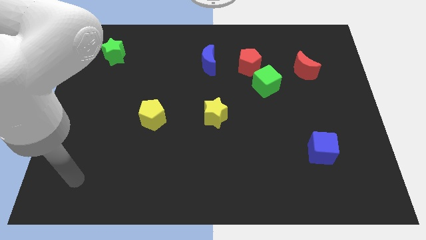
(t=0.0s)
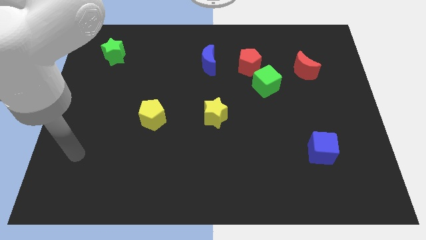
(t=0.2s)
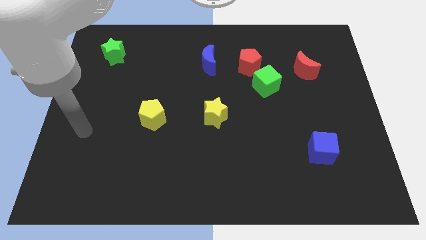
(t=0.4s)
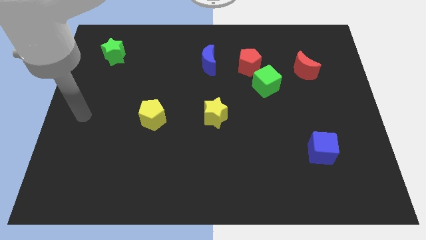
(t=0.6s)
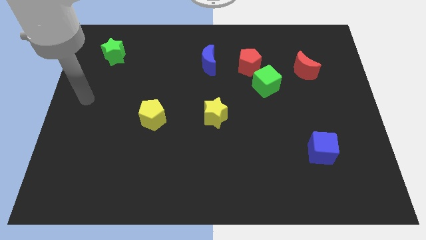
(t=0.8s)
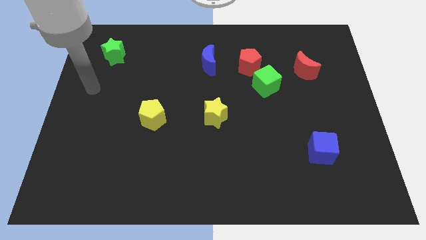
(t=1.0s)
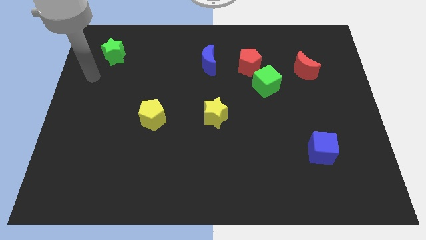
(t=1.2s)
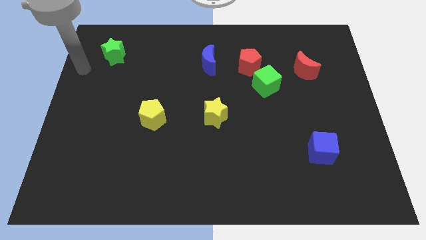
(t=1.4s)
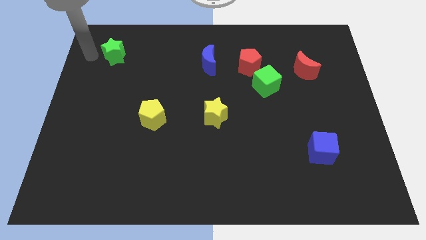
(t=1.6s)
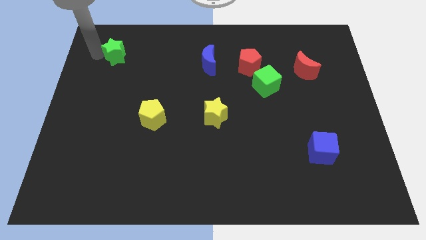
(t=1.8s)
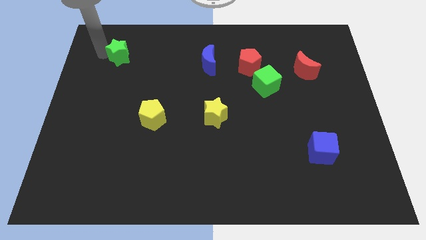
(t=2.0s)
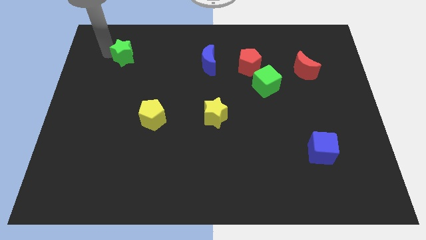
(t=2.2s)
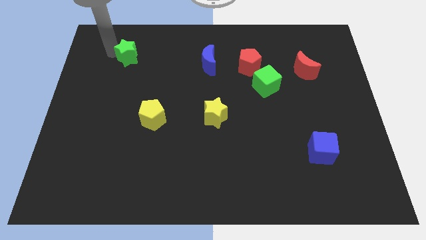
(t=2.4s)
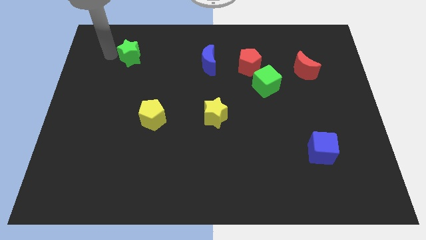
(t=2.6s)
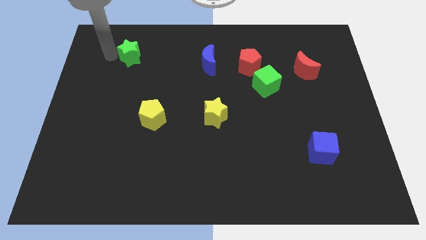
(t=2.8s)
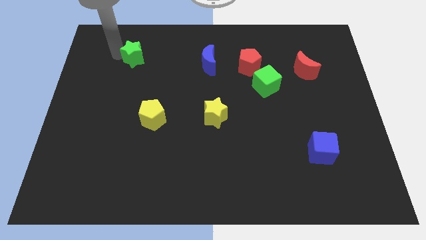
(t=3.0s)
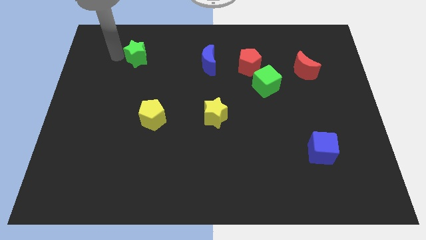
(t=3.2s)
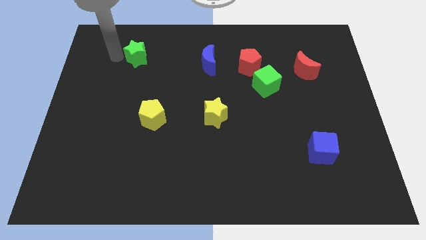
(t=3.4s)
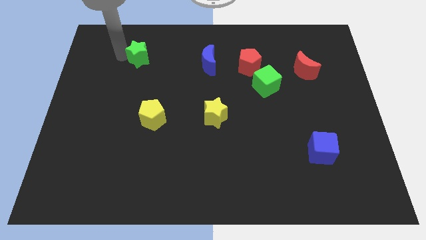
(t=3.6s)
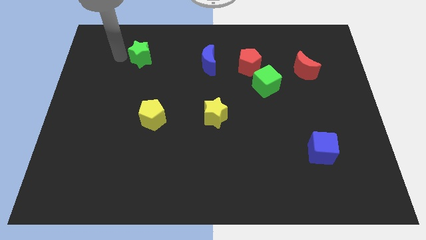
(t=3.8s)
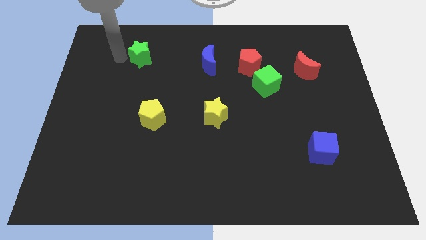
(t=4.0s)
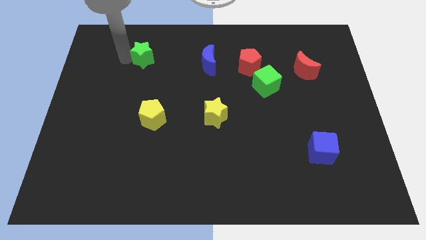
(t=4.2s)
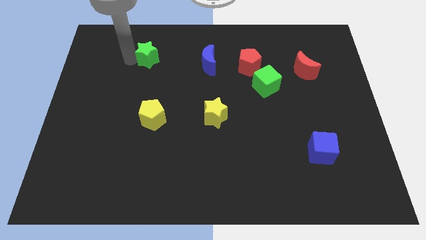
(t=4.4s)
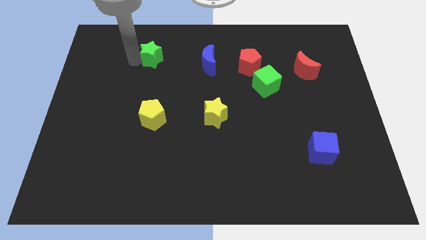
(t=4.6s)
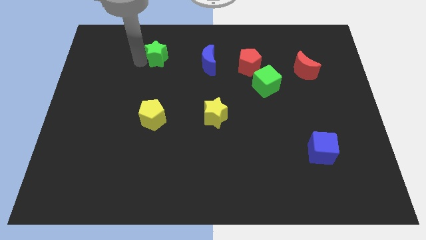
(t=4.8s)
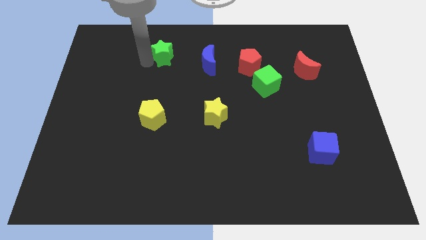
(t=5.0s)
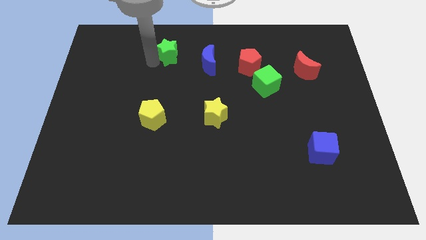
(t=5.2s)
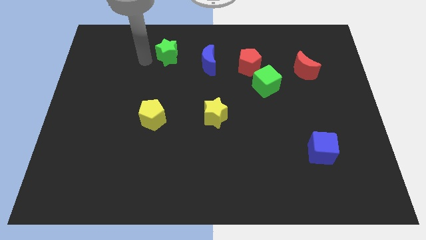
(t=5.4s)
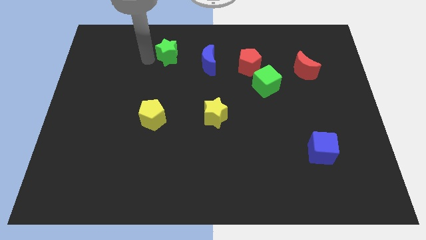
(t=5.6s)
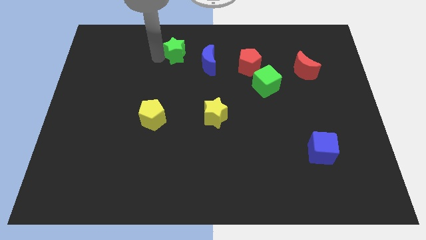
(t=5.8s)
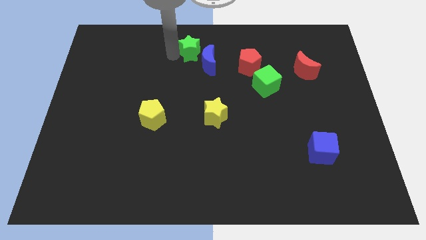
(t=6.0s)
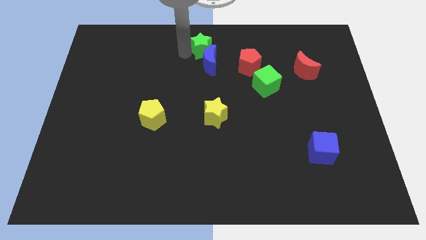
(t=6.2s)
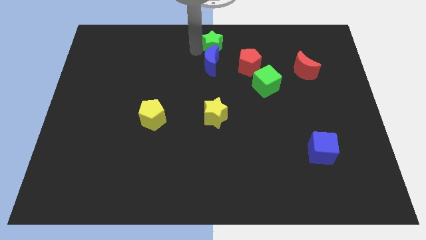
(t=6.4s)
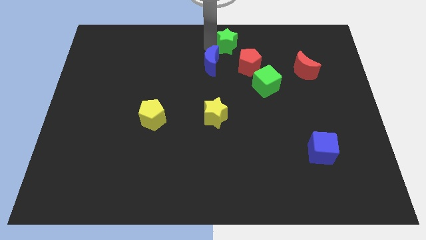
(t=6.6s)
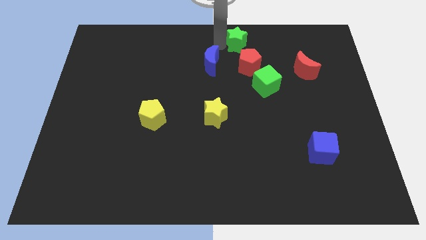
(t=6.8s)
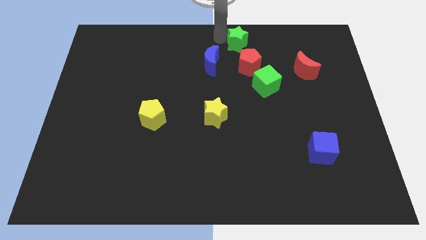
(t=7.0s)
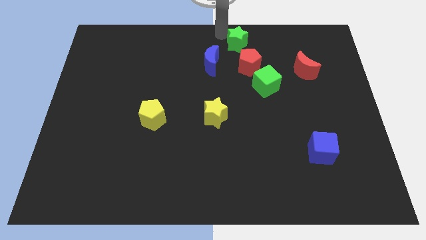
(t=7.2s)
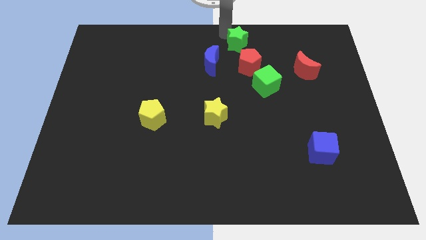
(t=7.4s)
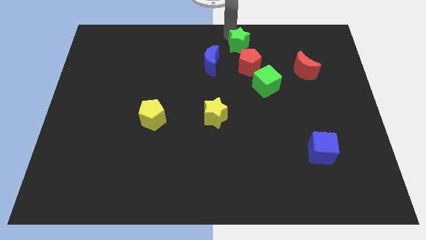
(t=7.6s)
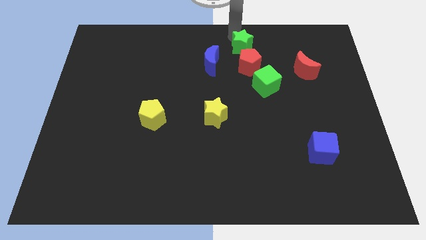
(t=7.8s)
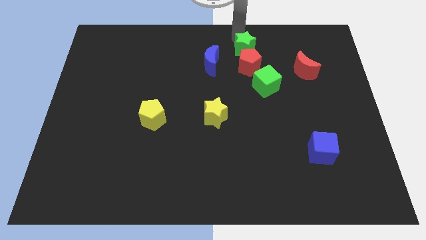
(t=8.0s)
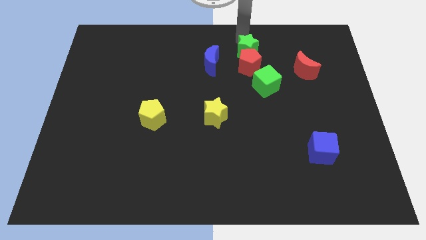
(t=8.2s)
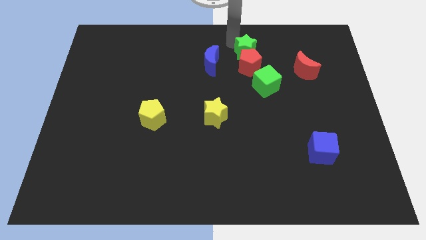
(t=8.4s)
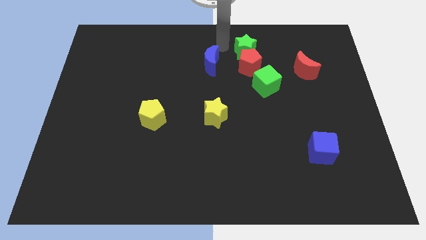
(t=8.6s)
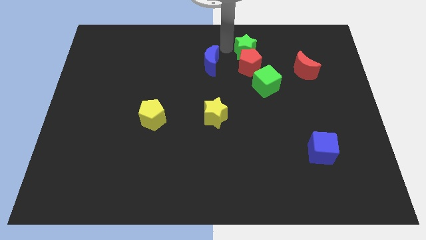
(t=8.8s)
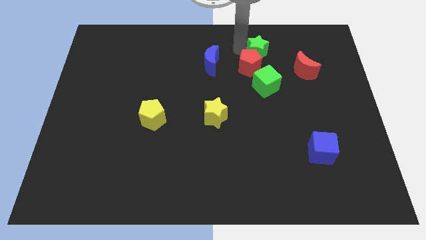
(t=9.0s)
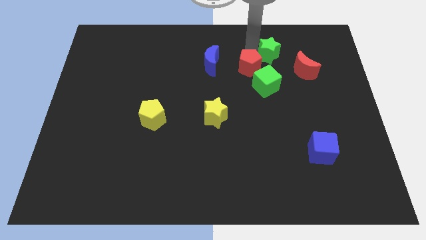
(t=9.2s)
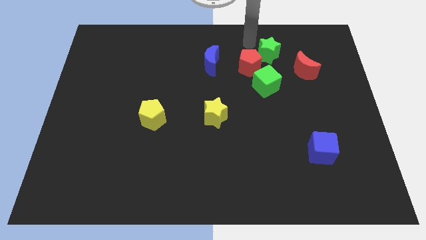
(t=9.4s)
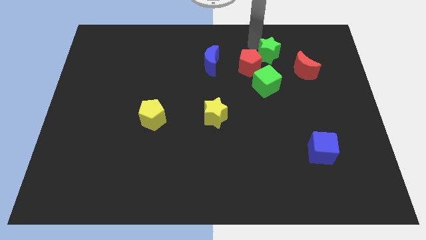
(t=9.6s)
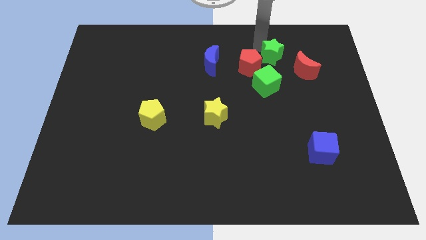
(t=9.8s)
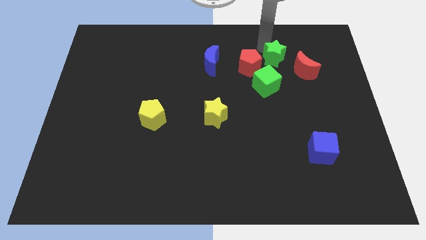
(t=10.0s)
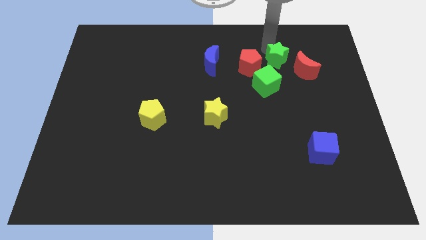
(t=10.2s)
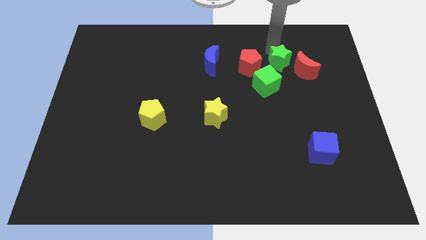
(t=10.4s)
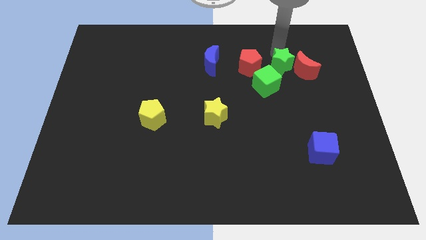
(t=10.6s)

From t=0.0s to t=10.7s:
move the green star close to the red moon

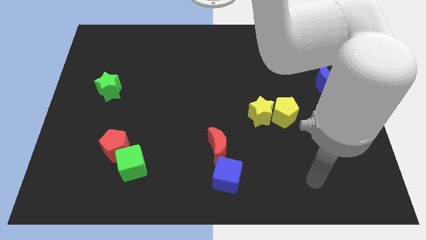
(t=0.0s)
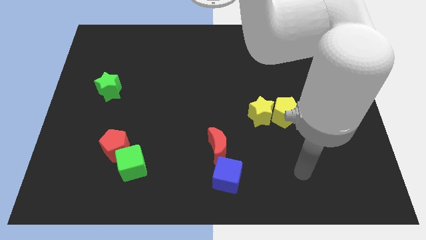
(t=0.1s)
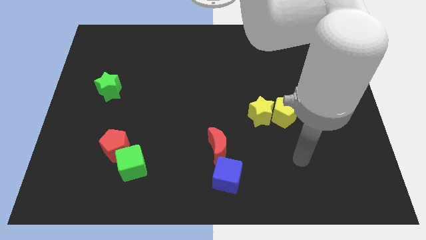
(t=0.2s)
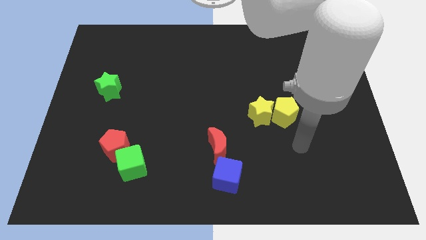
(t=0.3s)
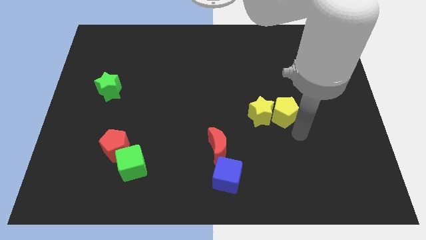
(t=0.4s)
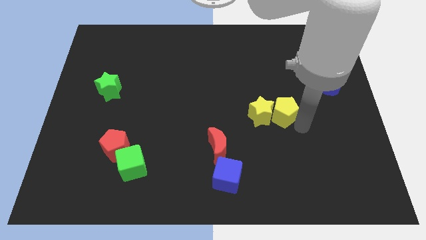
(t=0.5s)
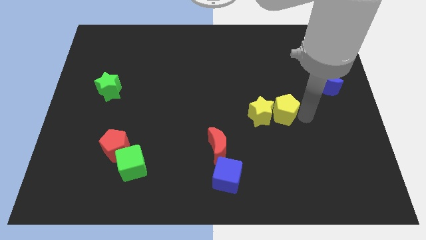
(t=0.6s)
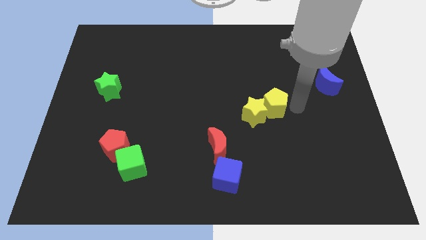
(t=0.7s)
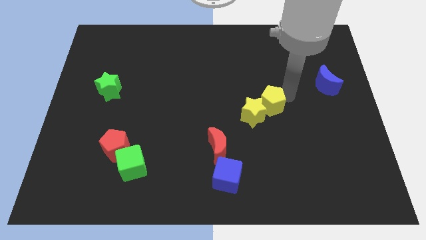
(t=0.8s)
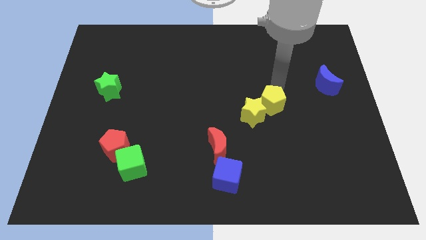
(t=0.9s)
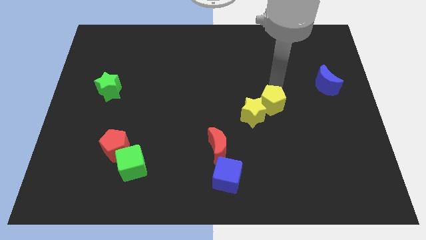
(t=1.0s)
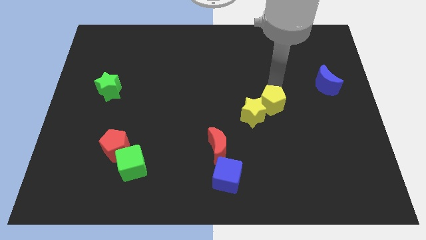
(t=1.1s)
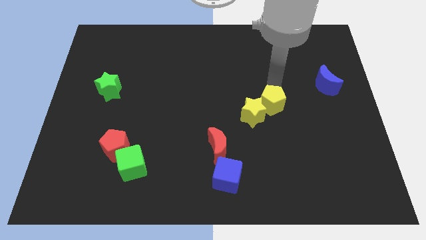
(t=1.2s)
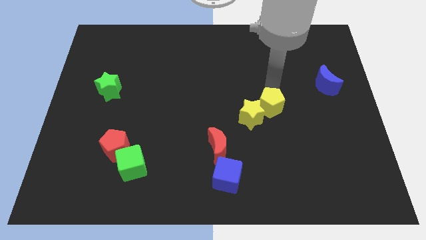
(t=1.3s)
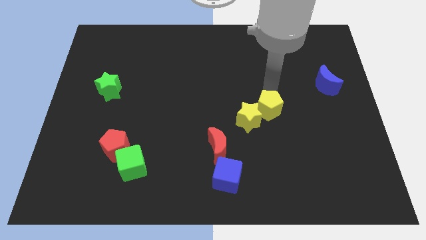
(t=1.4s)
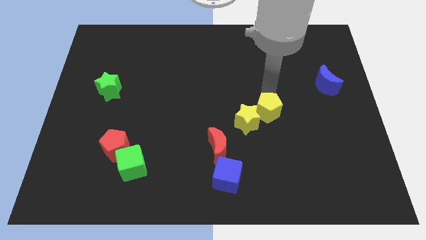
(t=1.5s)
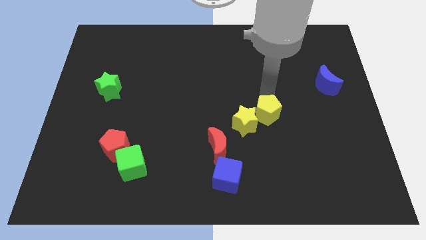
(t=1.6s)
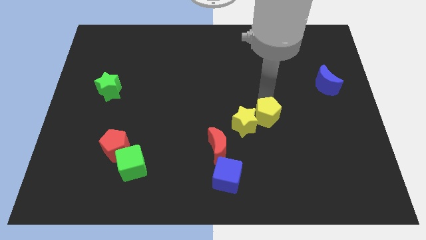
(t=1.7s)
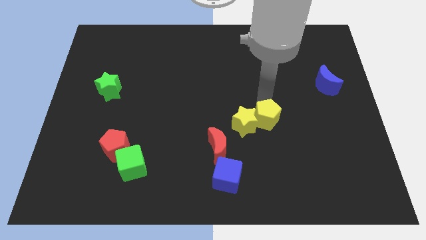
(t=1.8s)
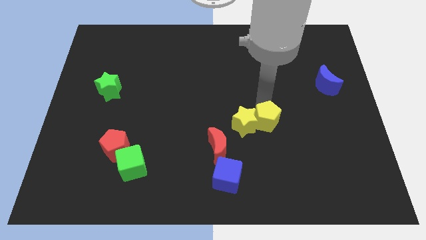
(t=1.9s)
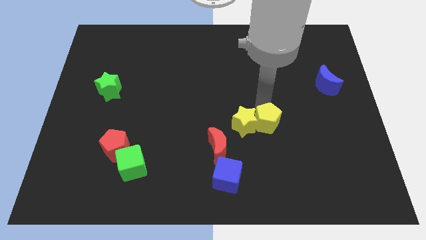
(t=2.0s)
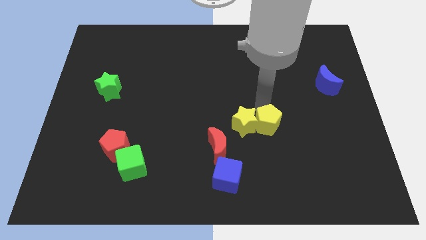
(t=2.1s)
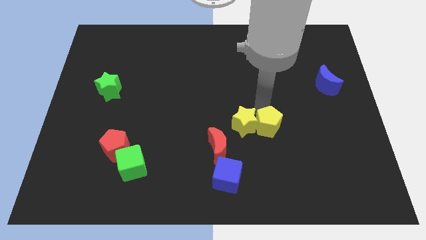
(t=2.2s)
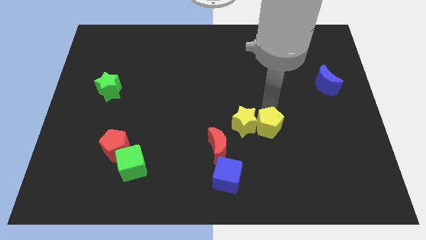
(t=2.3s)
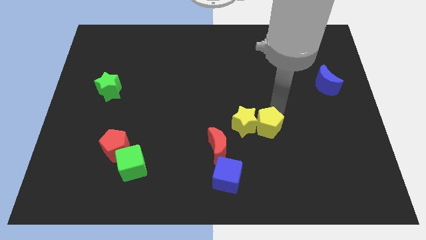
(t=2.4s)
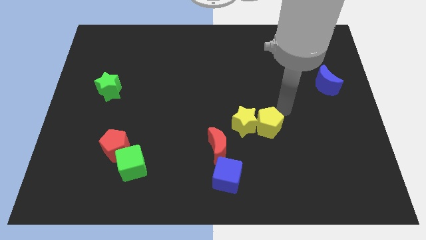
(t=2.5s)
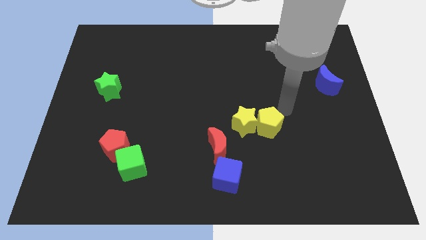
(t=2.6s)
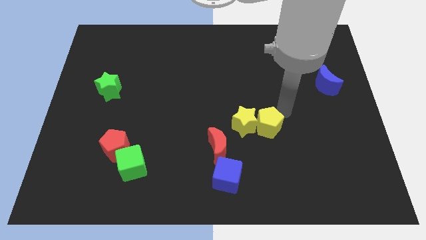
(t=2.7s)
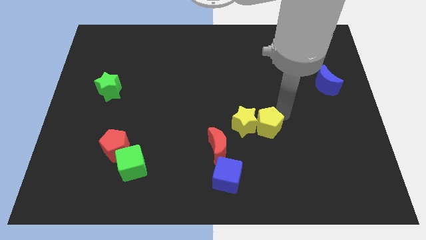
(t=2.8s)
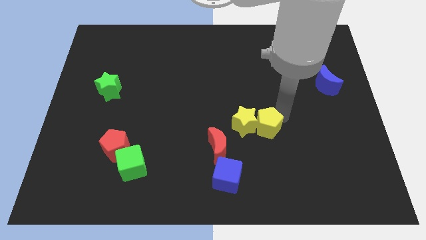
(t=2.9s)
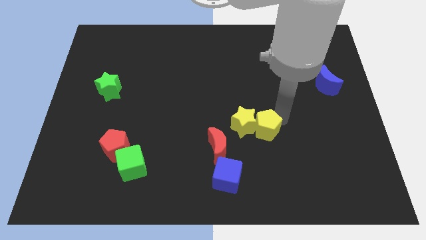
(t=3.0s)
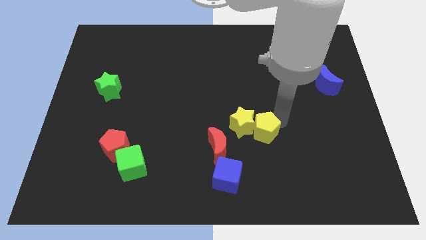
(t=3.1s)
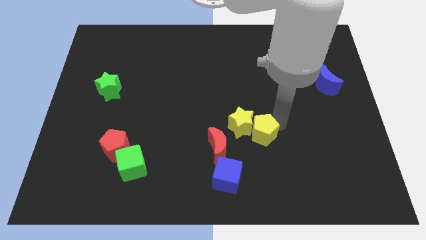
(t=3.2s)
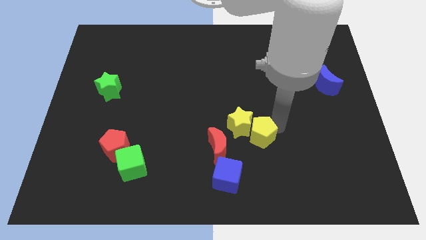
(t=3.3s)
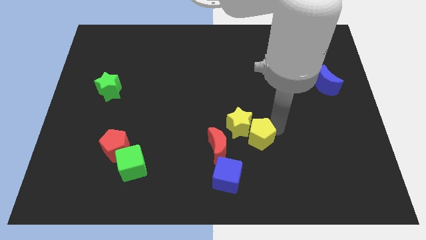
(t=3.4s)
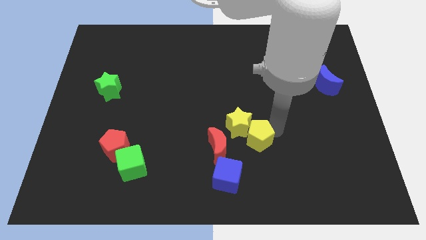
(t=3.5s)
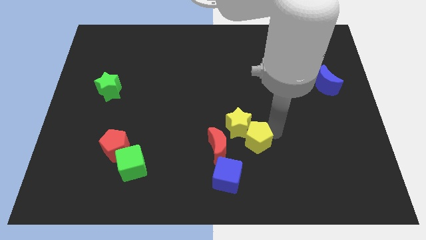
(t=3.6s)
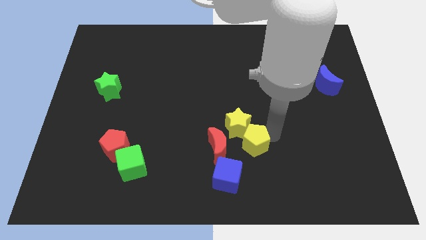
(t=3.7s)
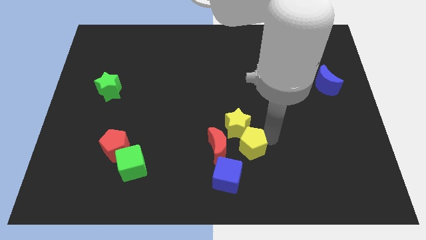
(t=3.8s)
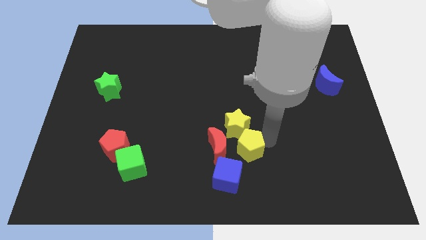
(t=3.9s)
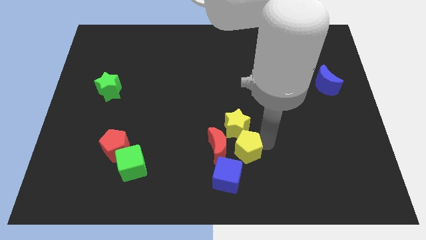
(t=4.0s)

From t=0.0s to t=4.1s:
move the yellow pentagon close to the red moon
